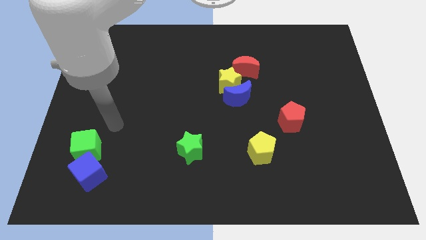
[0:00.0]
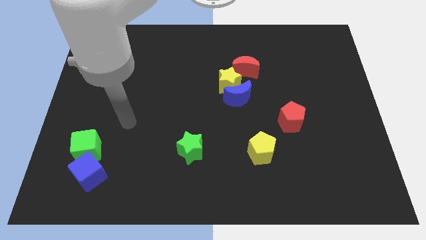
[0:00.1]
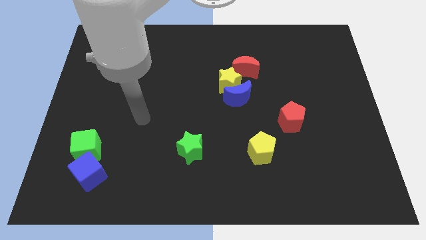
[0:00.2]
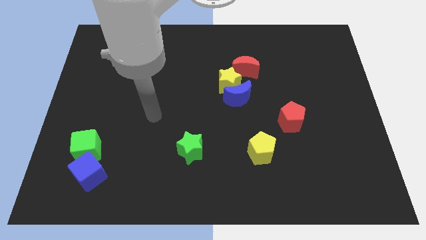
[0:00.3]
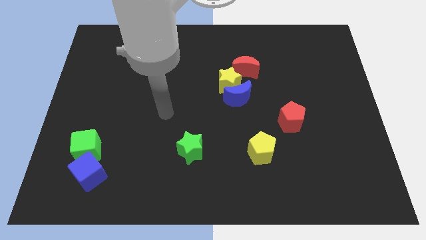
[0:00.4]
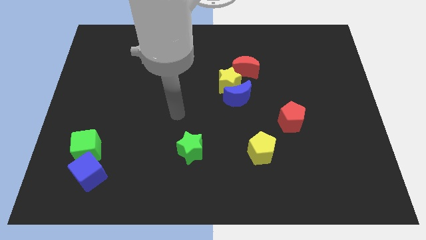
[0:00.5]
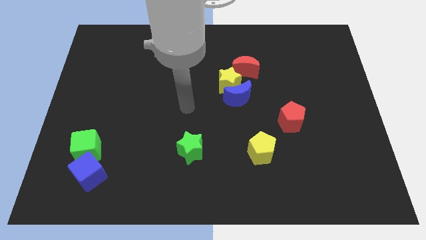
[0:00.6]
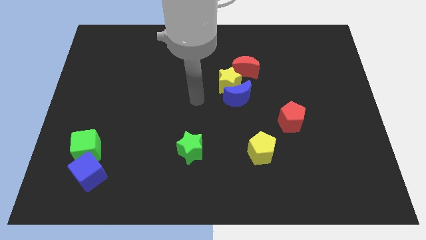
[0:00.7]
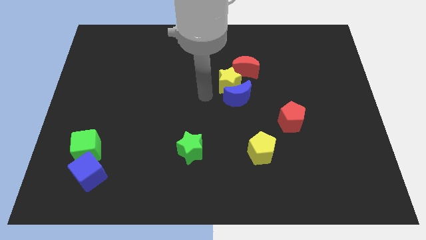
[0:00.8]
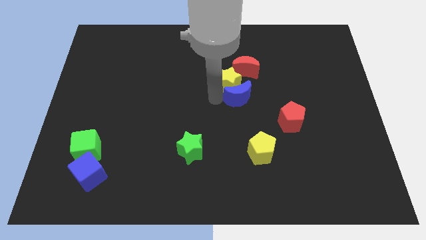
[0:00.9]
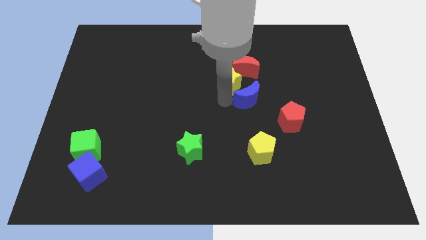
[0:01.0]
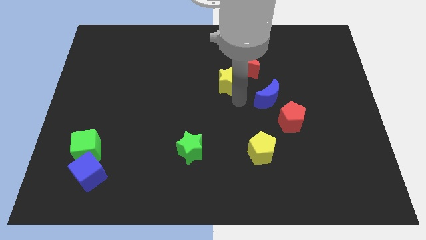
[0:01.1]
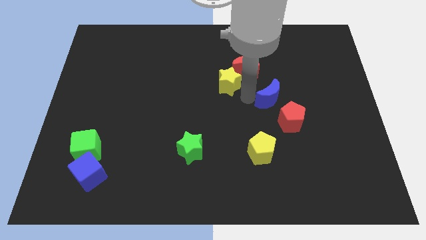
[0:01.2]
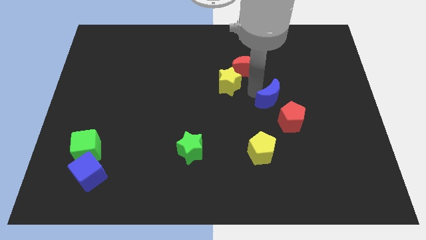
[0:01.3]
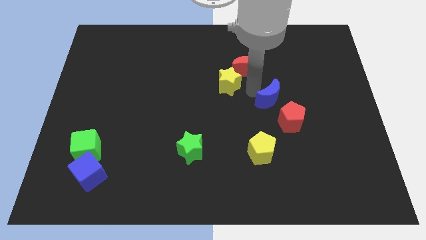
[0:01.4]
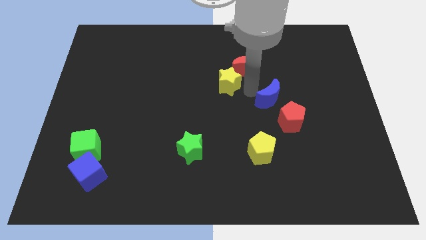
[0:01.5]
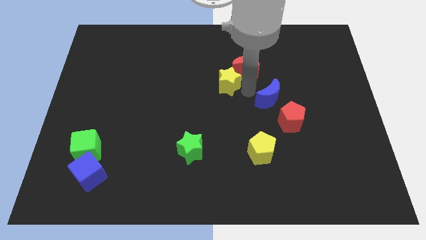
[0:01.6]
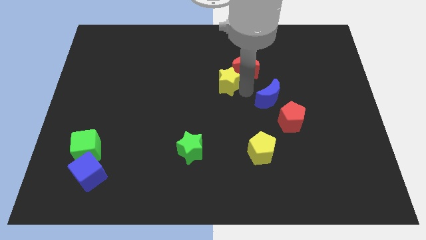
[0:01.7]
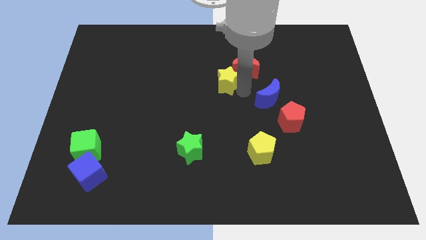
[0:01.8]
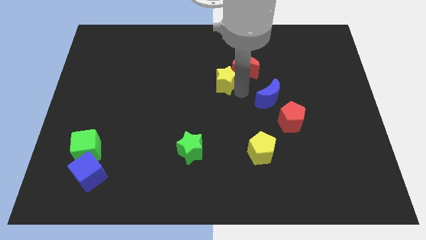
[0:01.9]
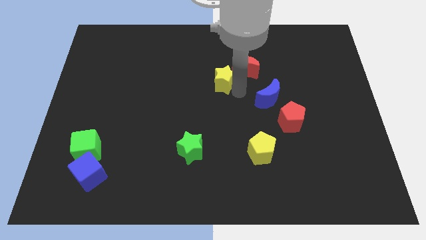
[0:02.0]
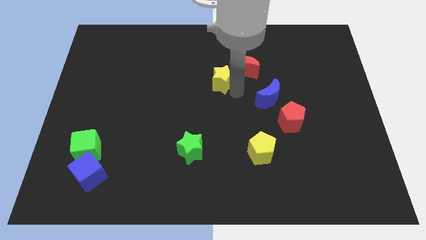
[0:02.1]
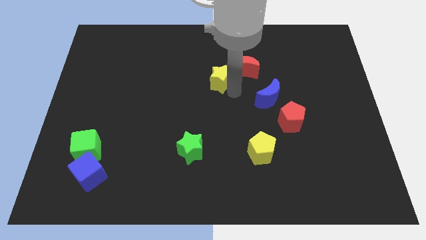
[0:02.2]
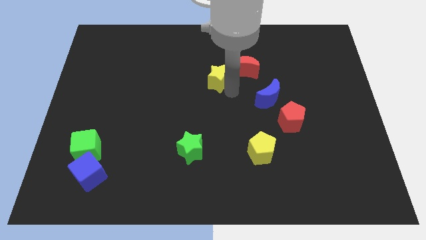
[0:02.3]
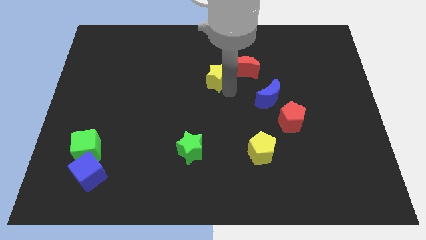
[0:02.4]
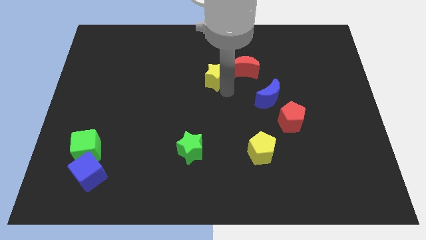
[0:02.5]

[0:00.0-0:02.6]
pull the yellow star apart from the blue moon and red moon

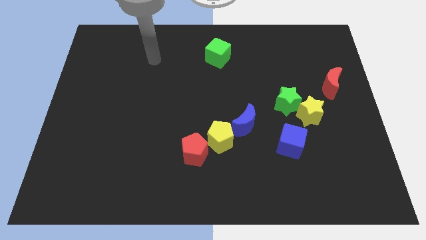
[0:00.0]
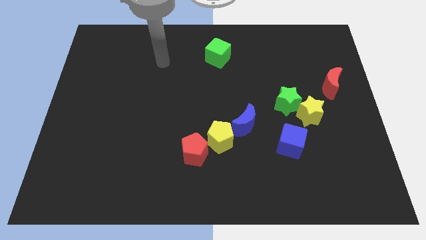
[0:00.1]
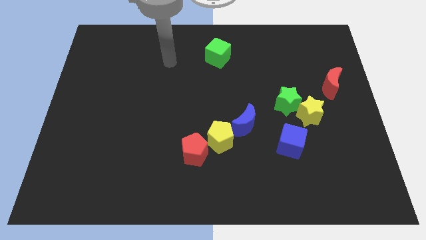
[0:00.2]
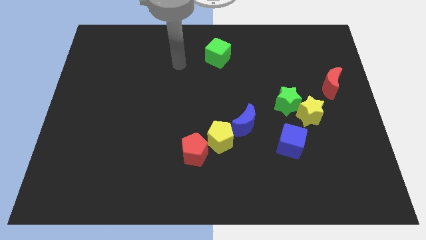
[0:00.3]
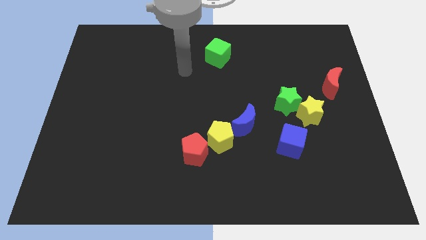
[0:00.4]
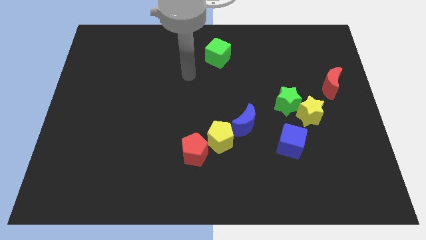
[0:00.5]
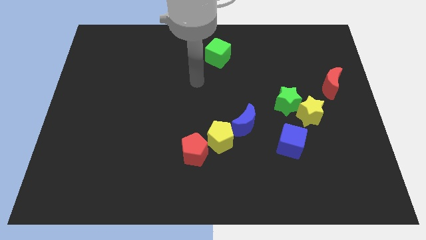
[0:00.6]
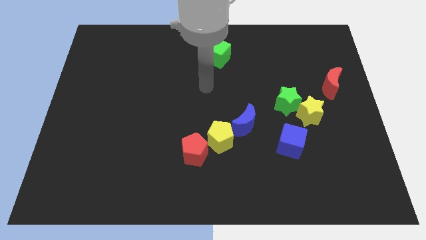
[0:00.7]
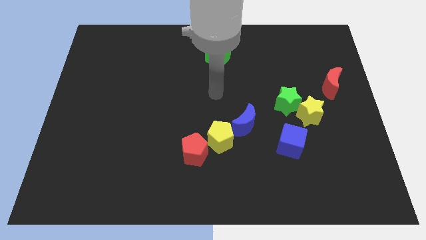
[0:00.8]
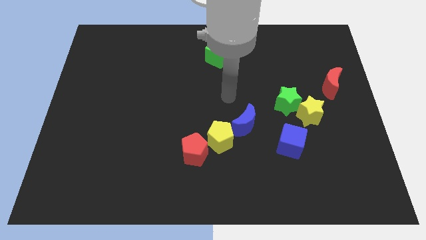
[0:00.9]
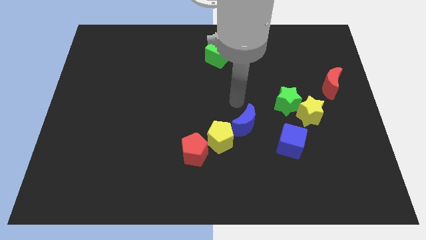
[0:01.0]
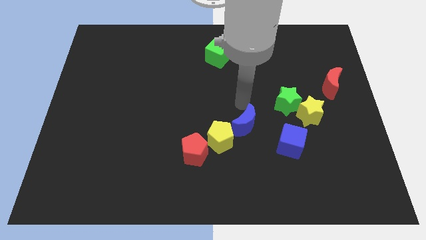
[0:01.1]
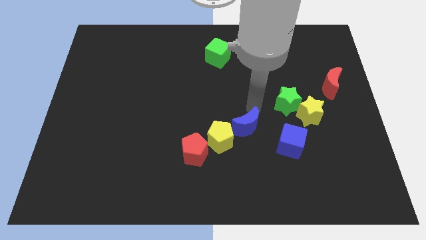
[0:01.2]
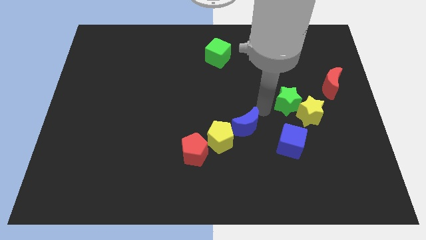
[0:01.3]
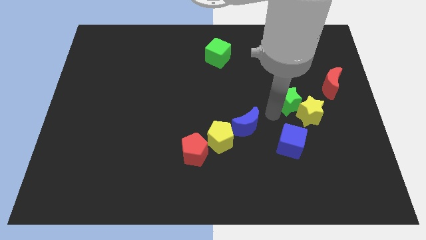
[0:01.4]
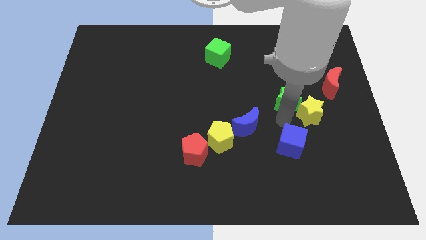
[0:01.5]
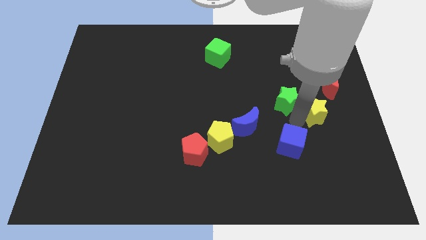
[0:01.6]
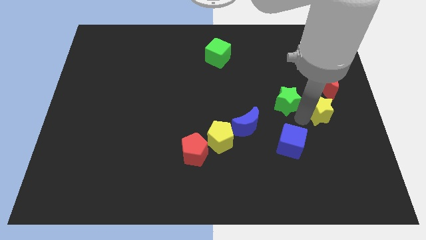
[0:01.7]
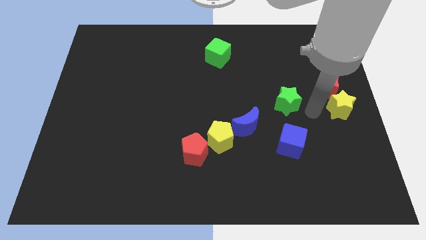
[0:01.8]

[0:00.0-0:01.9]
pull the green star apart from the yellow star

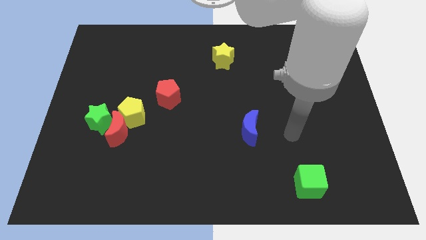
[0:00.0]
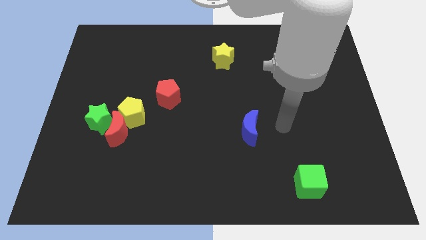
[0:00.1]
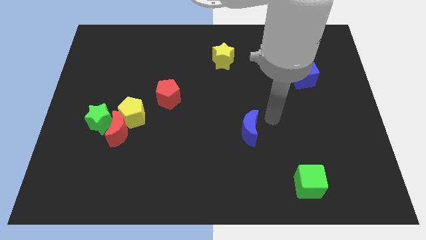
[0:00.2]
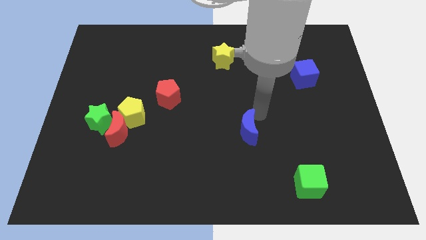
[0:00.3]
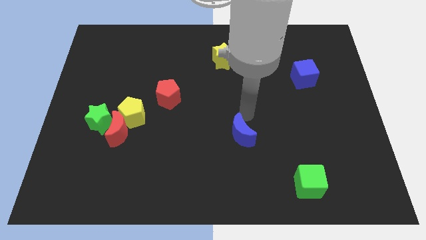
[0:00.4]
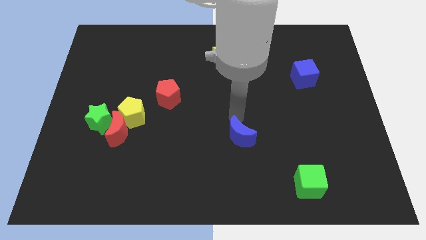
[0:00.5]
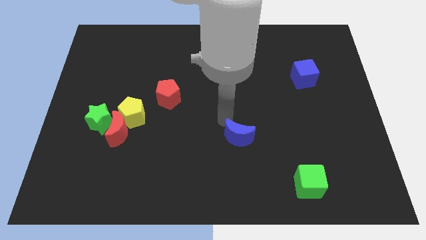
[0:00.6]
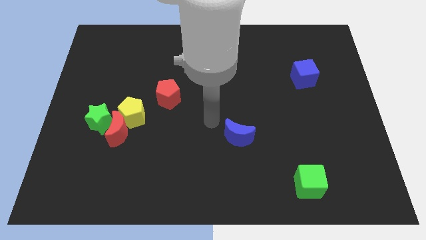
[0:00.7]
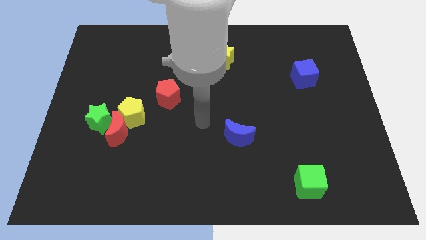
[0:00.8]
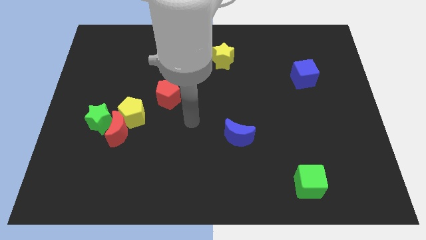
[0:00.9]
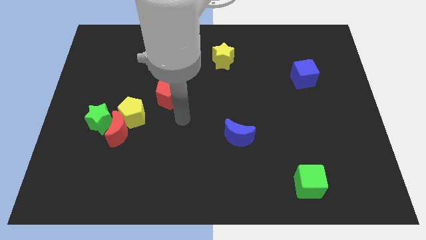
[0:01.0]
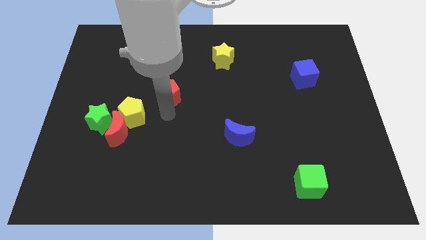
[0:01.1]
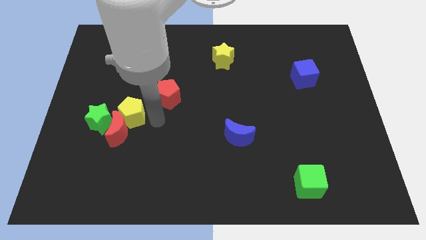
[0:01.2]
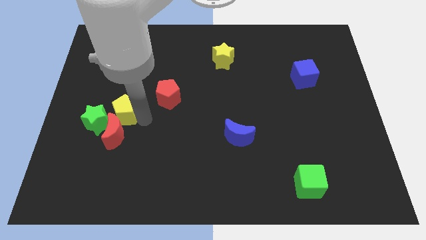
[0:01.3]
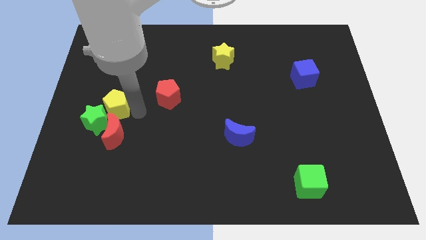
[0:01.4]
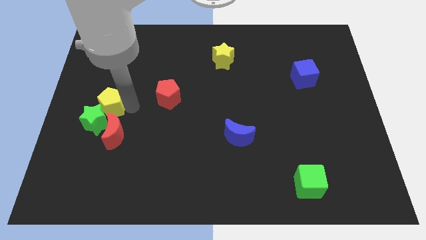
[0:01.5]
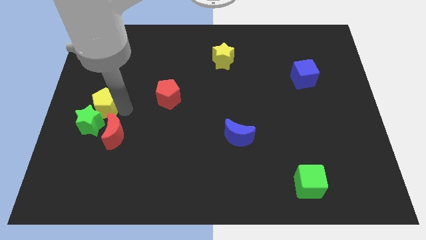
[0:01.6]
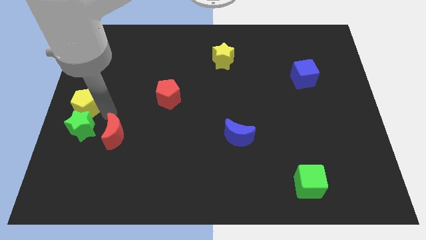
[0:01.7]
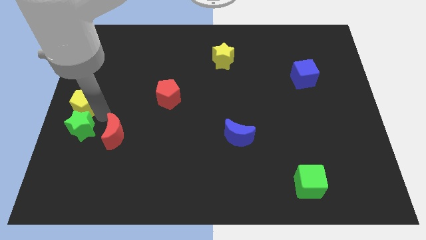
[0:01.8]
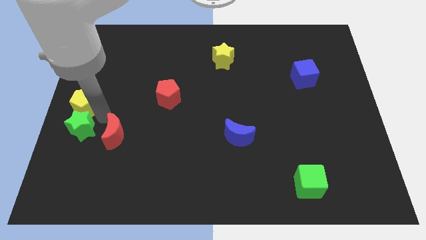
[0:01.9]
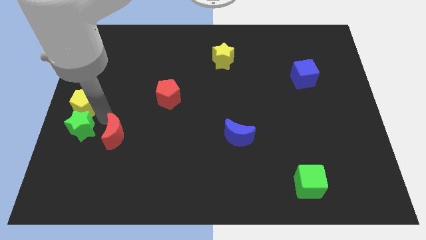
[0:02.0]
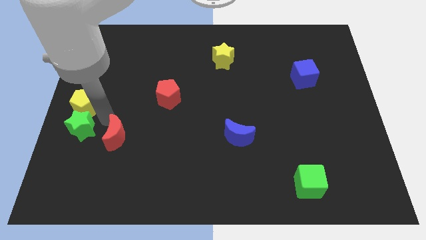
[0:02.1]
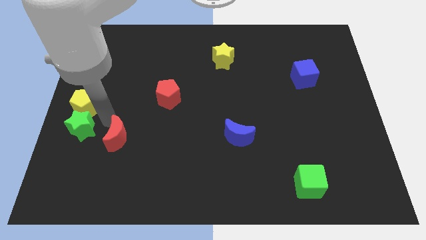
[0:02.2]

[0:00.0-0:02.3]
move the red moon away from the yellow pentagon and green star

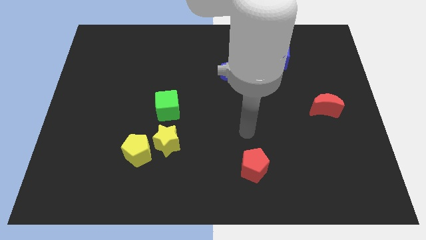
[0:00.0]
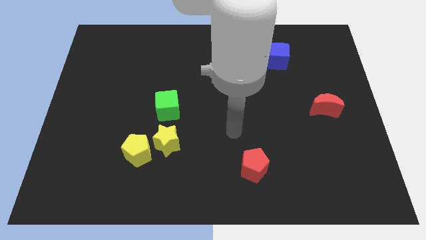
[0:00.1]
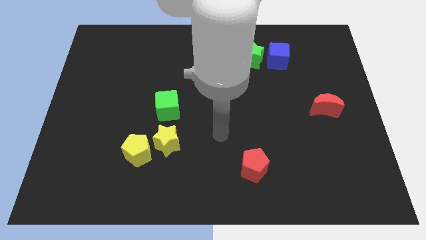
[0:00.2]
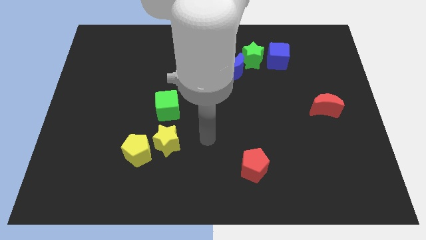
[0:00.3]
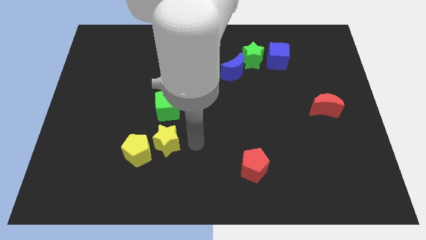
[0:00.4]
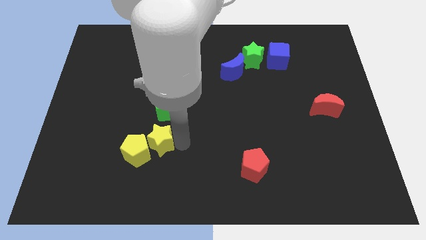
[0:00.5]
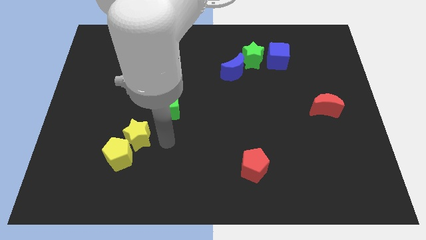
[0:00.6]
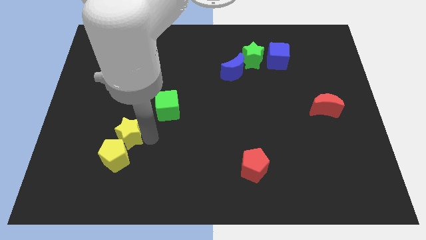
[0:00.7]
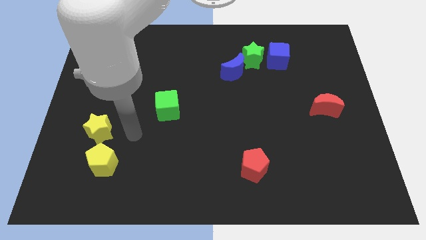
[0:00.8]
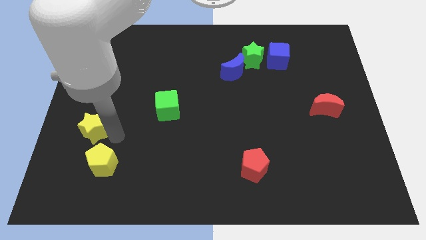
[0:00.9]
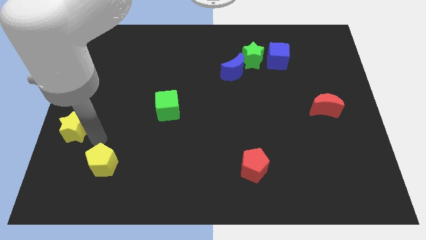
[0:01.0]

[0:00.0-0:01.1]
separate the yellow pentagon from the yellow star

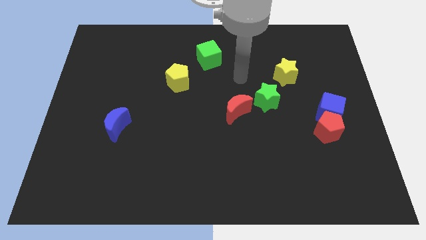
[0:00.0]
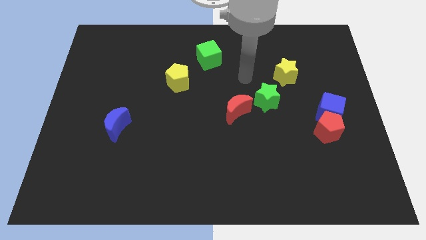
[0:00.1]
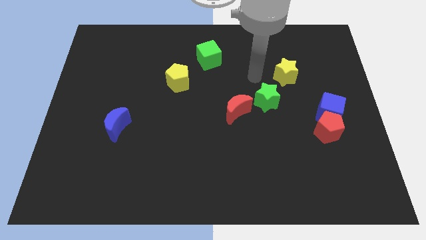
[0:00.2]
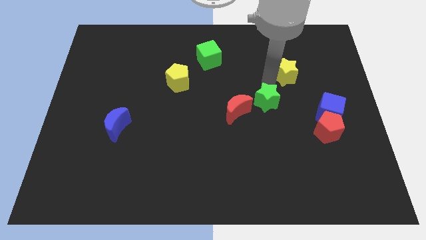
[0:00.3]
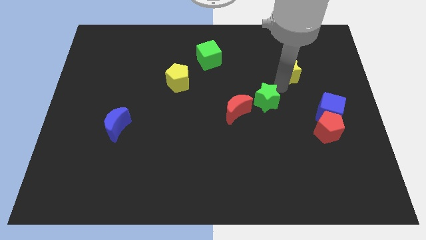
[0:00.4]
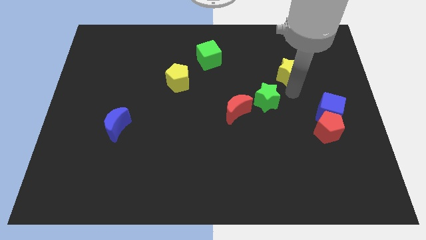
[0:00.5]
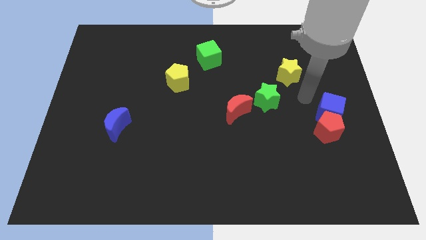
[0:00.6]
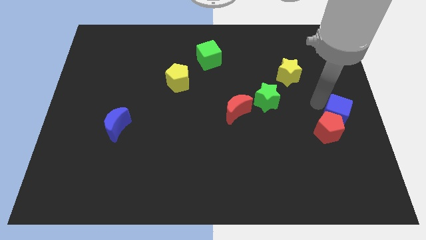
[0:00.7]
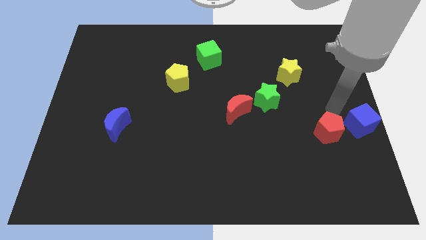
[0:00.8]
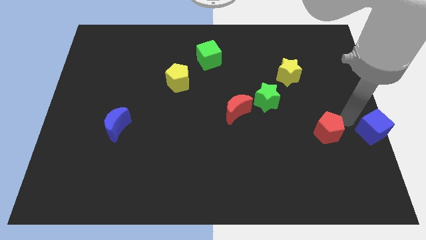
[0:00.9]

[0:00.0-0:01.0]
pull the red pentagon apart from the blue cube

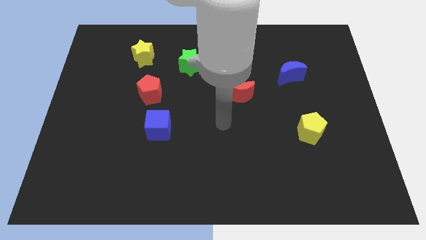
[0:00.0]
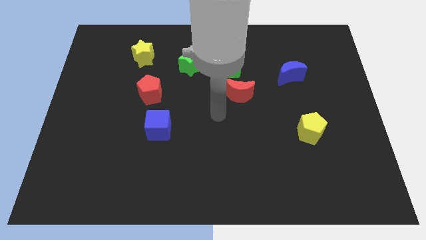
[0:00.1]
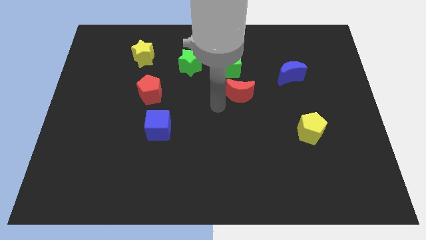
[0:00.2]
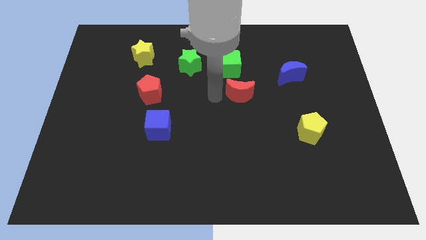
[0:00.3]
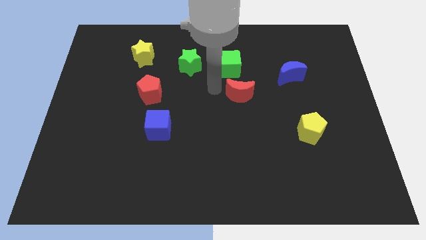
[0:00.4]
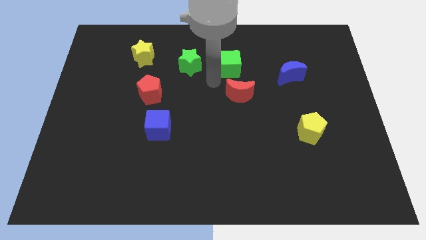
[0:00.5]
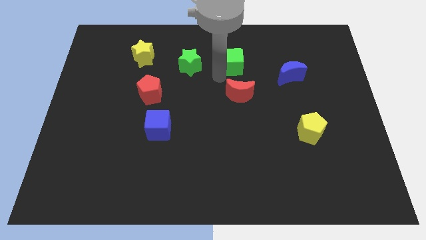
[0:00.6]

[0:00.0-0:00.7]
move the red moon away from the green cube
